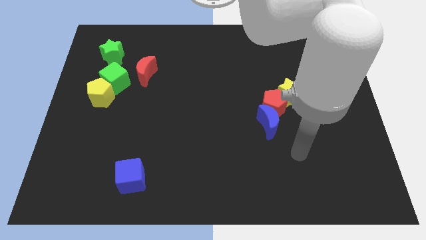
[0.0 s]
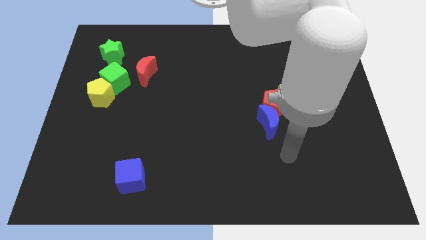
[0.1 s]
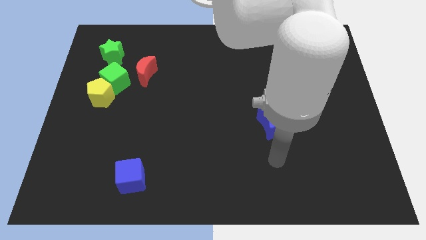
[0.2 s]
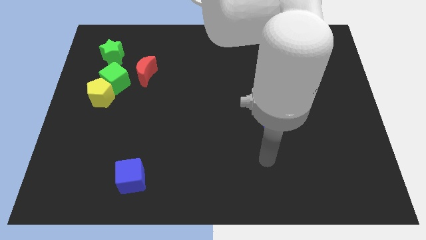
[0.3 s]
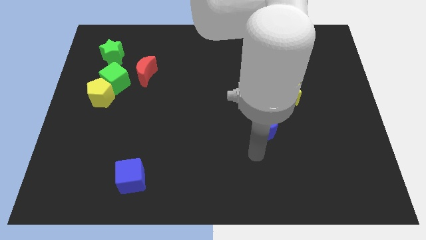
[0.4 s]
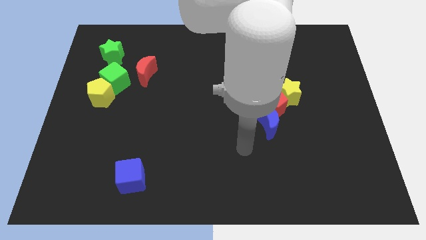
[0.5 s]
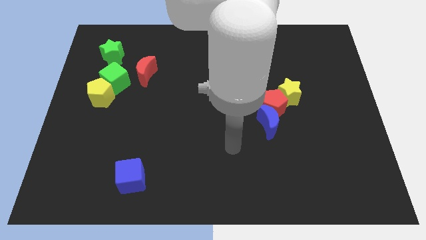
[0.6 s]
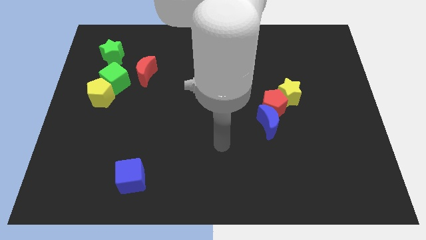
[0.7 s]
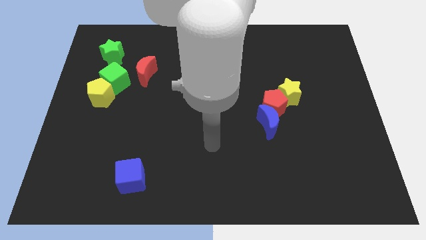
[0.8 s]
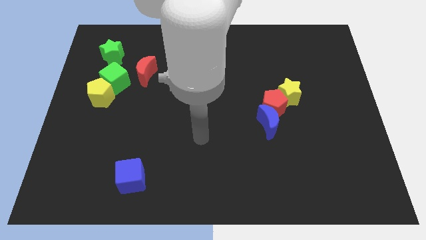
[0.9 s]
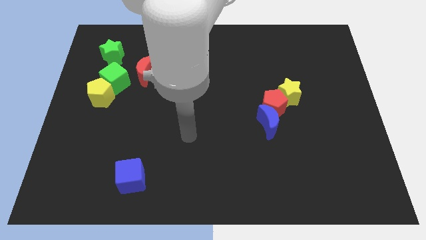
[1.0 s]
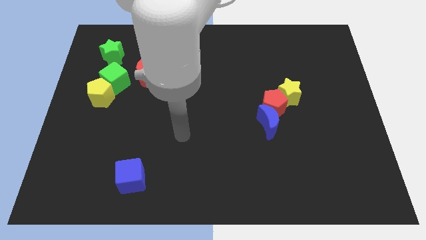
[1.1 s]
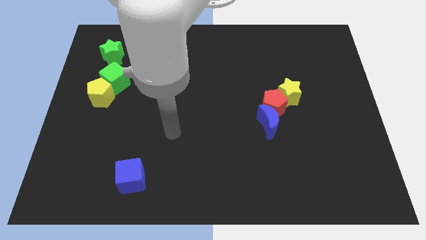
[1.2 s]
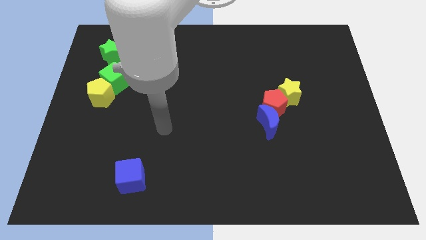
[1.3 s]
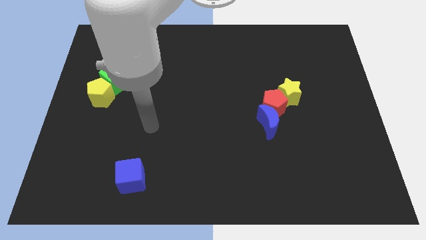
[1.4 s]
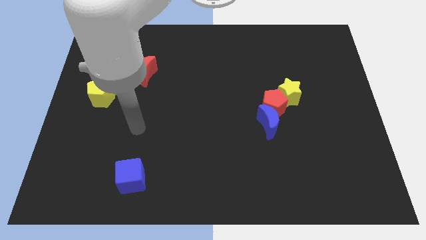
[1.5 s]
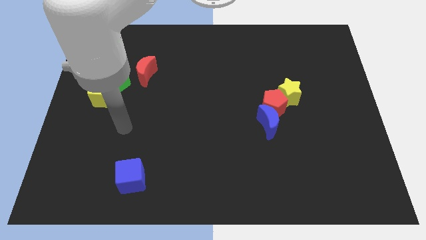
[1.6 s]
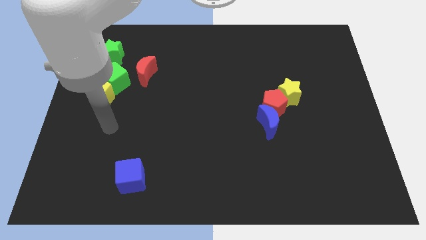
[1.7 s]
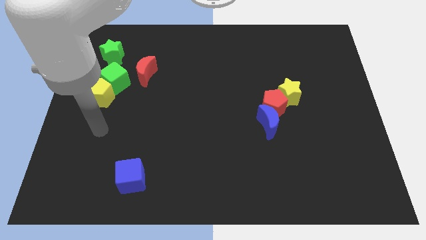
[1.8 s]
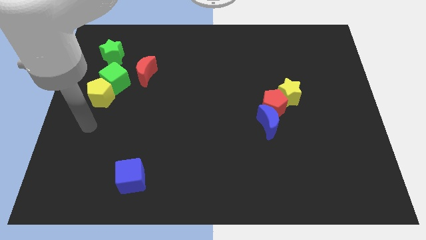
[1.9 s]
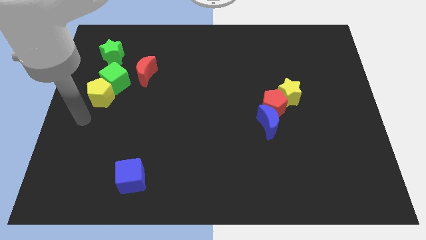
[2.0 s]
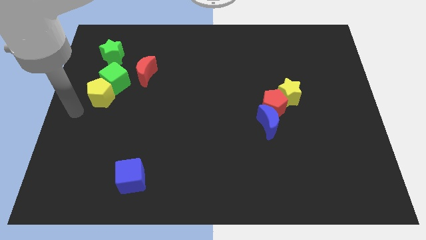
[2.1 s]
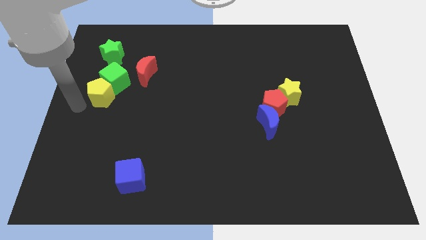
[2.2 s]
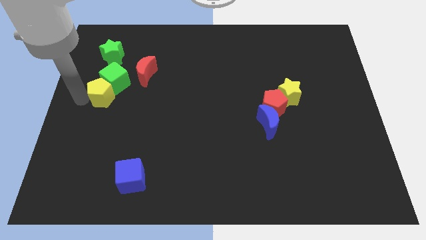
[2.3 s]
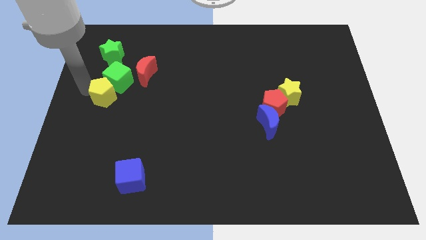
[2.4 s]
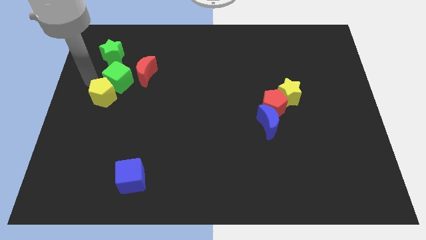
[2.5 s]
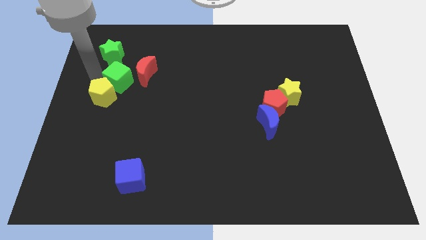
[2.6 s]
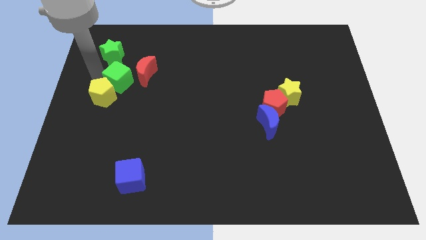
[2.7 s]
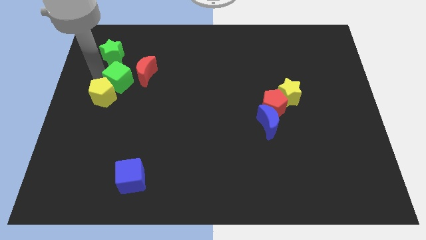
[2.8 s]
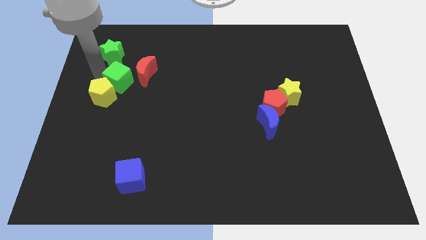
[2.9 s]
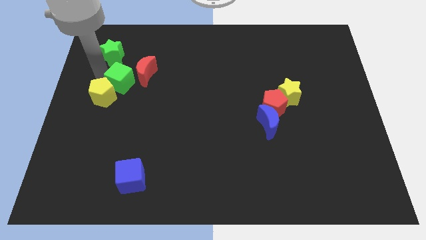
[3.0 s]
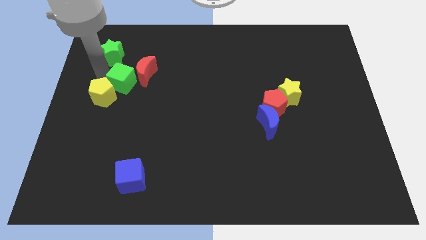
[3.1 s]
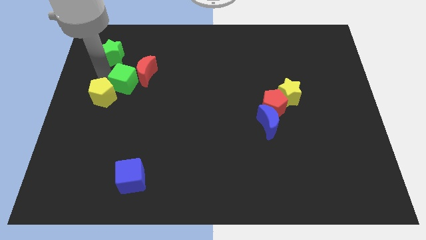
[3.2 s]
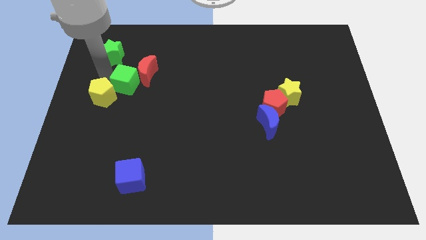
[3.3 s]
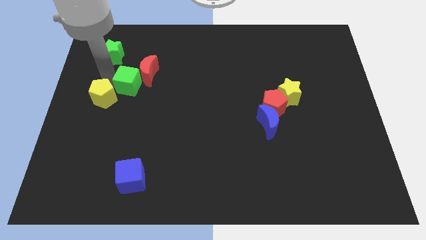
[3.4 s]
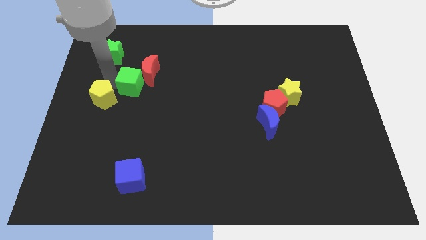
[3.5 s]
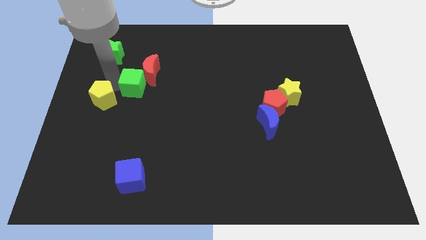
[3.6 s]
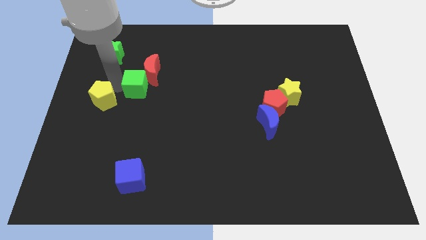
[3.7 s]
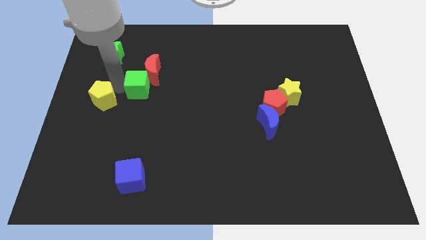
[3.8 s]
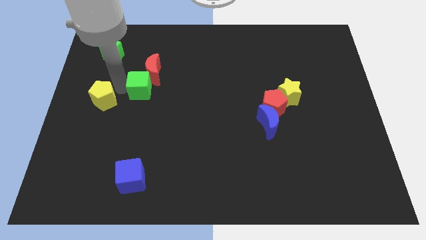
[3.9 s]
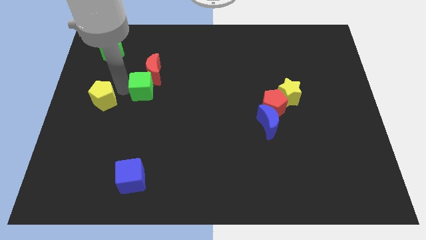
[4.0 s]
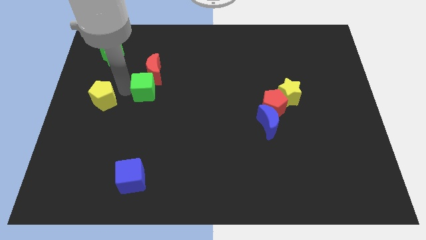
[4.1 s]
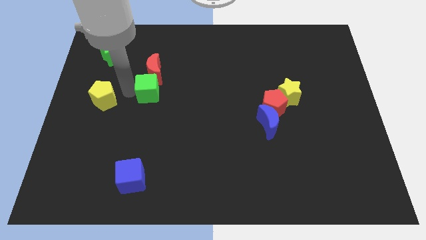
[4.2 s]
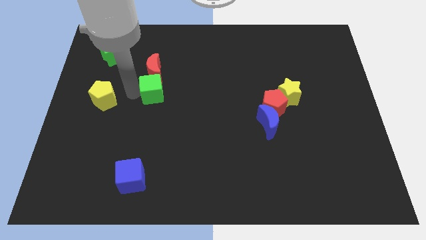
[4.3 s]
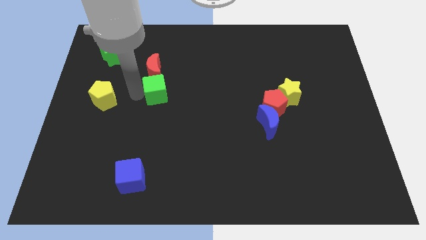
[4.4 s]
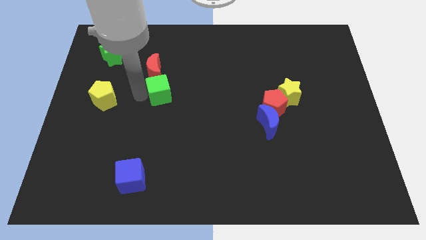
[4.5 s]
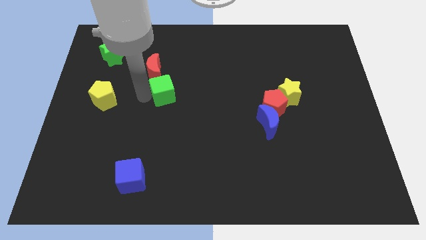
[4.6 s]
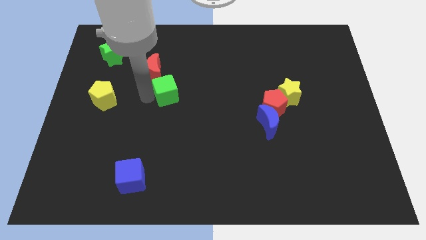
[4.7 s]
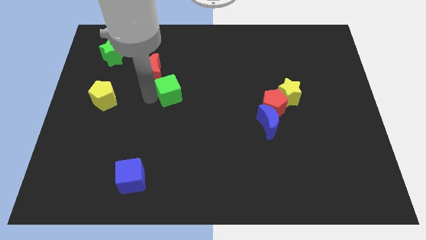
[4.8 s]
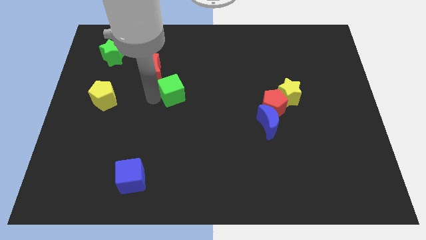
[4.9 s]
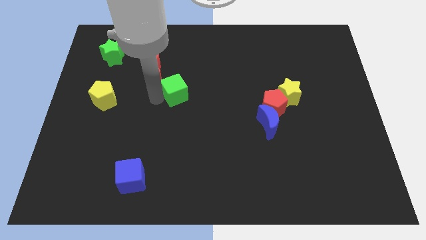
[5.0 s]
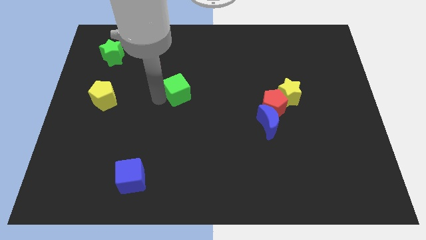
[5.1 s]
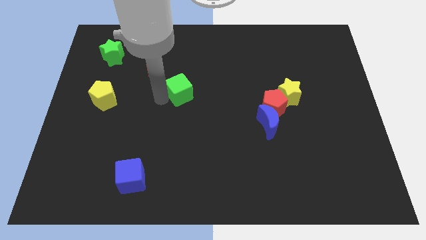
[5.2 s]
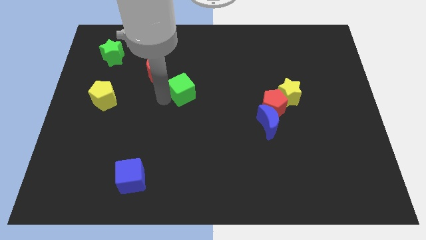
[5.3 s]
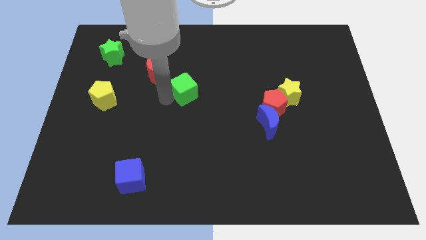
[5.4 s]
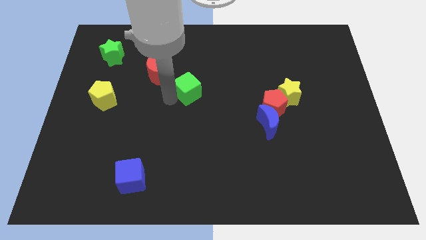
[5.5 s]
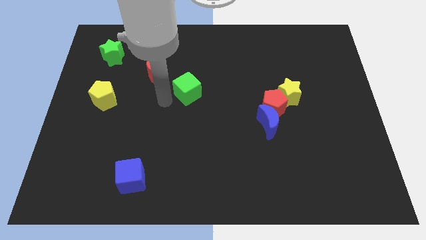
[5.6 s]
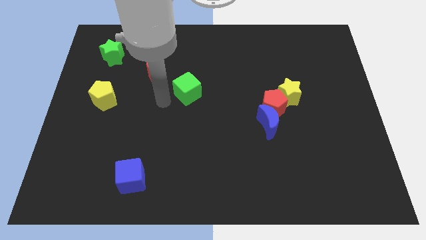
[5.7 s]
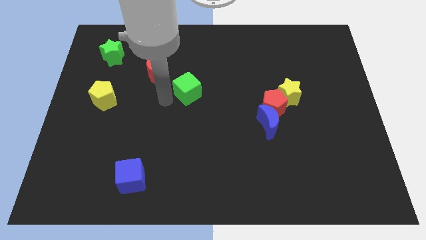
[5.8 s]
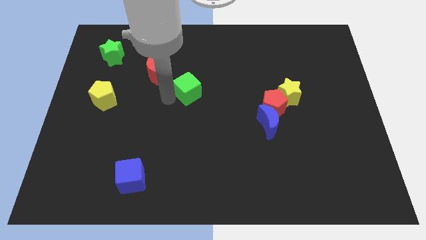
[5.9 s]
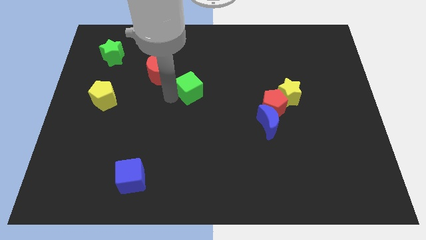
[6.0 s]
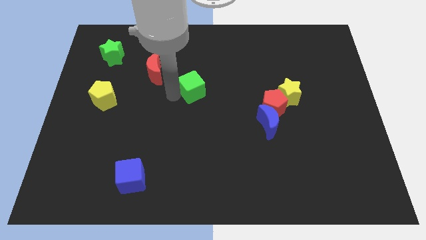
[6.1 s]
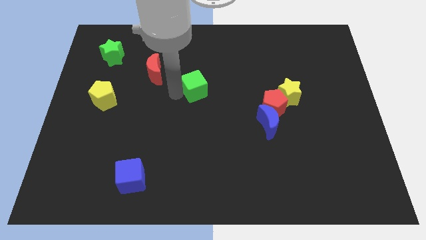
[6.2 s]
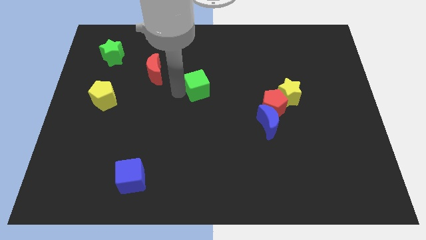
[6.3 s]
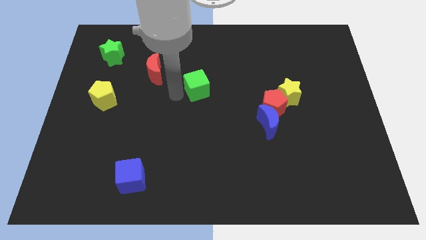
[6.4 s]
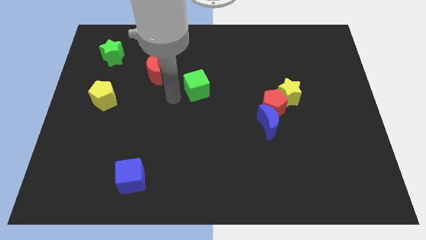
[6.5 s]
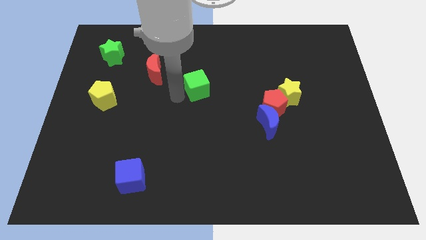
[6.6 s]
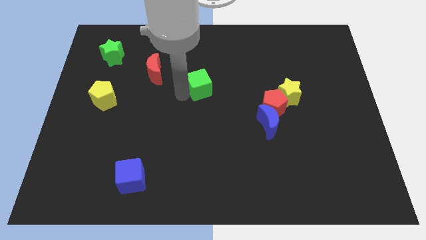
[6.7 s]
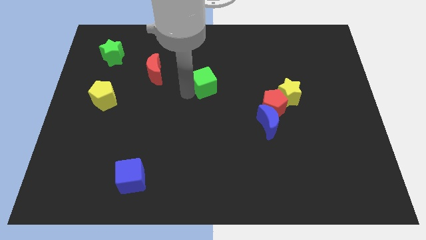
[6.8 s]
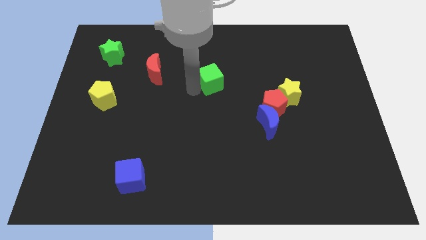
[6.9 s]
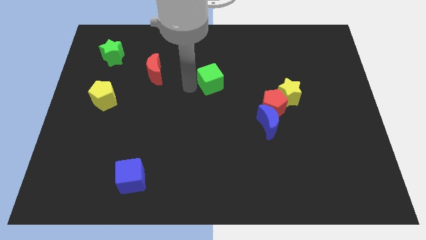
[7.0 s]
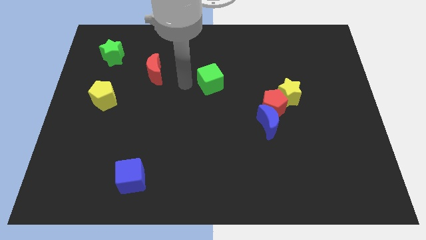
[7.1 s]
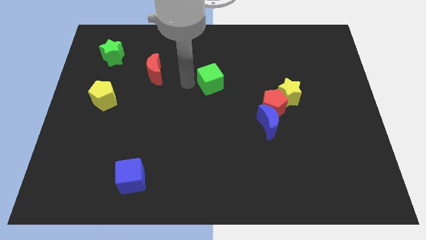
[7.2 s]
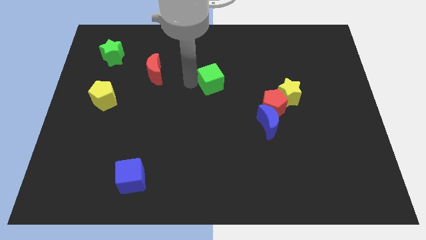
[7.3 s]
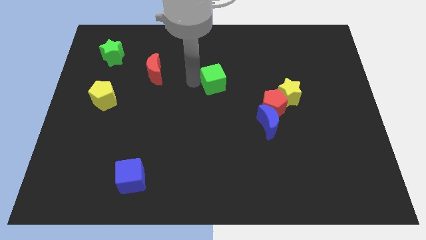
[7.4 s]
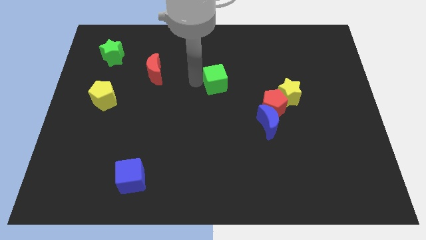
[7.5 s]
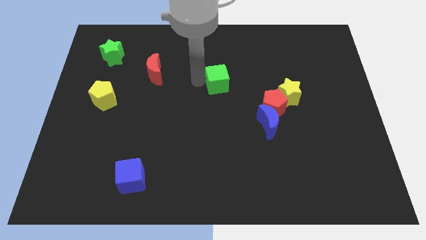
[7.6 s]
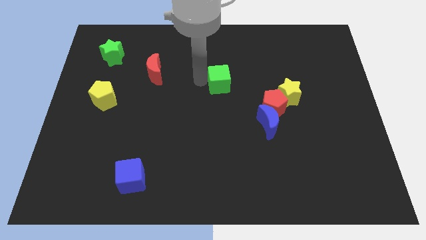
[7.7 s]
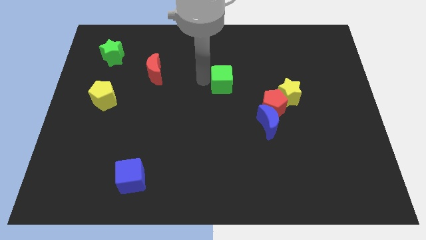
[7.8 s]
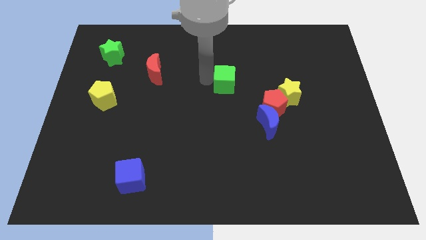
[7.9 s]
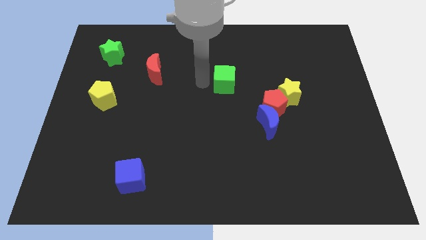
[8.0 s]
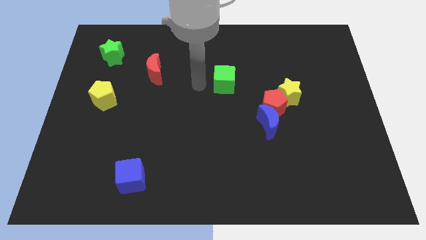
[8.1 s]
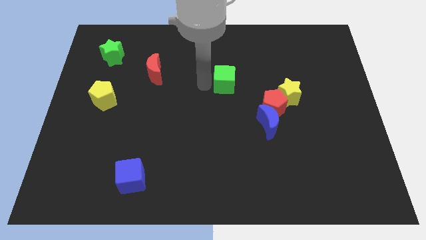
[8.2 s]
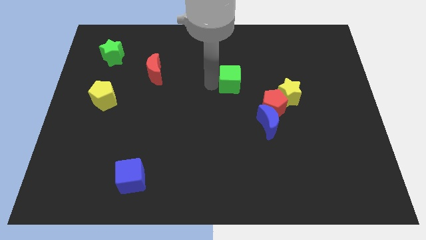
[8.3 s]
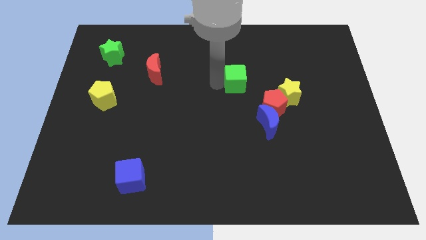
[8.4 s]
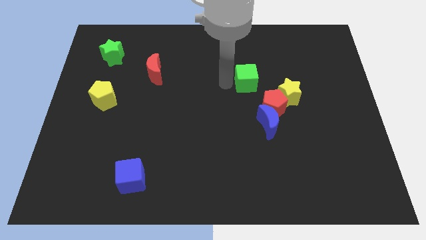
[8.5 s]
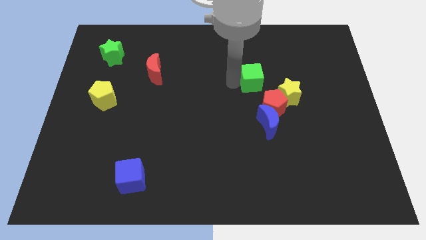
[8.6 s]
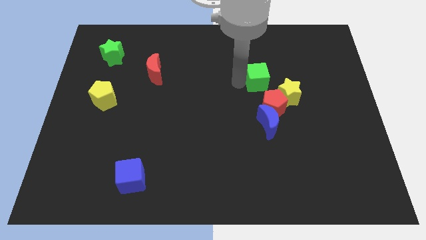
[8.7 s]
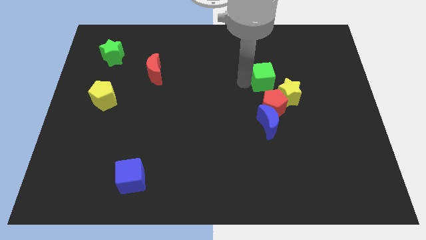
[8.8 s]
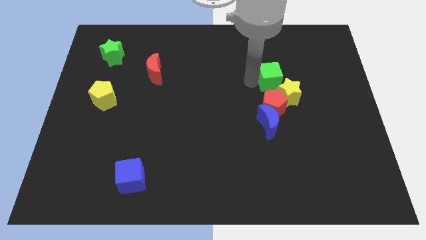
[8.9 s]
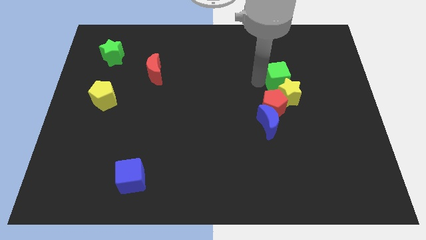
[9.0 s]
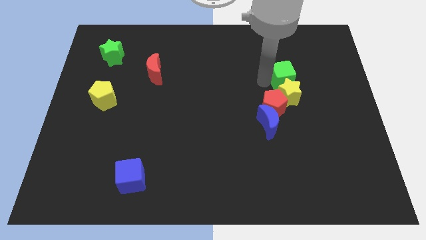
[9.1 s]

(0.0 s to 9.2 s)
move the green cube diagonally up and to the right of the yellow star
